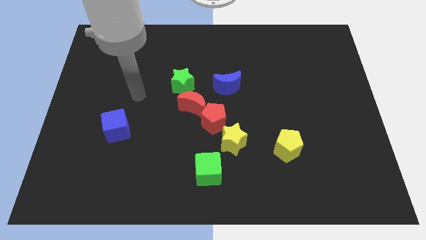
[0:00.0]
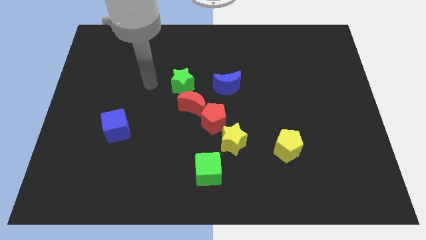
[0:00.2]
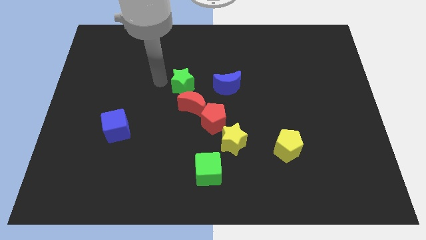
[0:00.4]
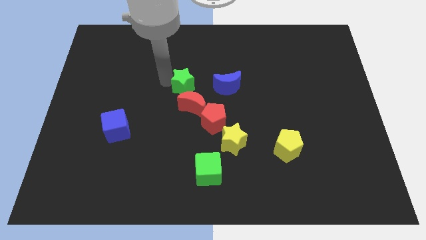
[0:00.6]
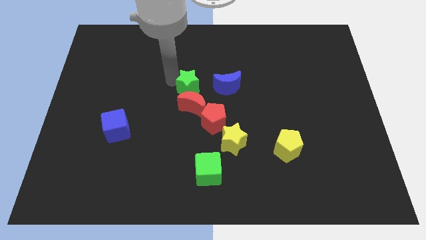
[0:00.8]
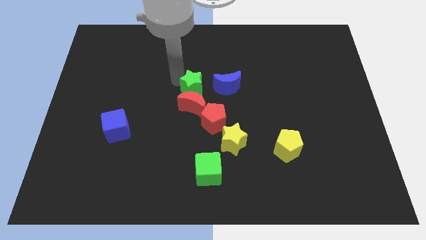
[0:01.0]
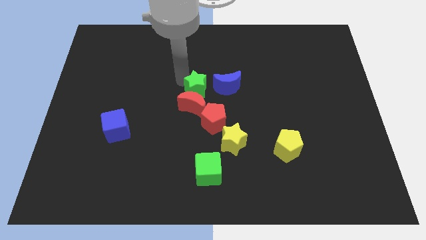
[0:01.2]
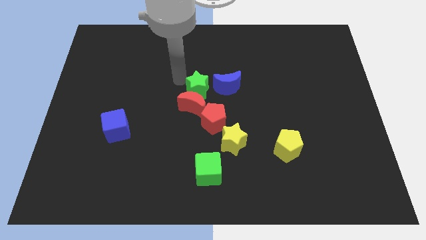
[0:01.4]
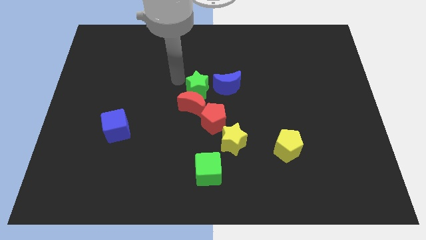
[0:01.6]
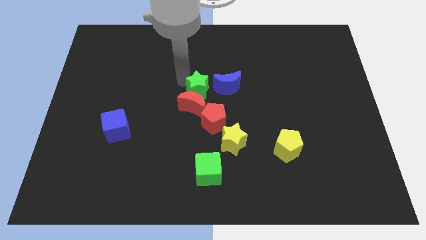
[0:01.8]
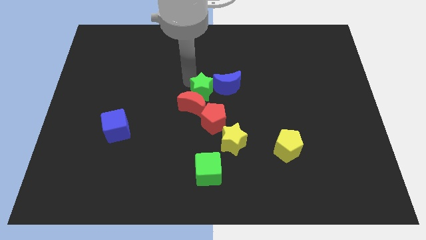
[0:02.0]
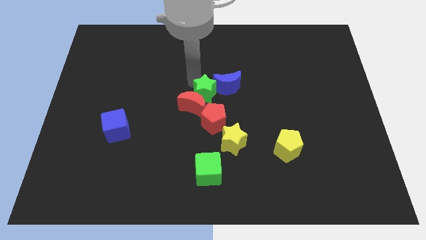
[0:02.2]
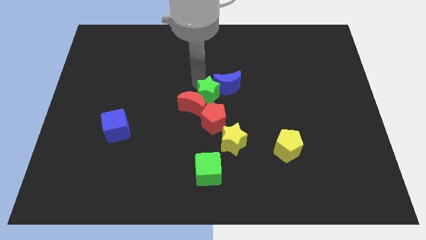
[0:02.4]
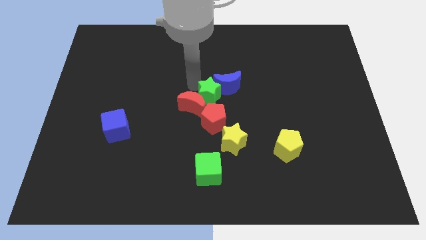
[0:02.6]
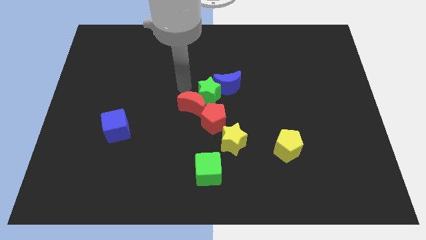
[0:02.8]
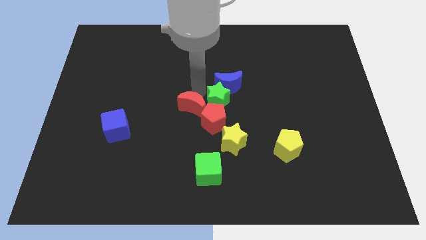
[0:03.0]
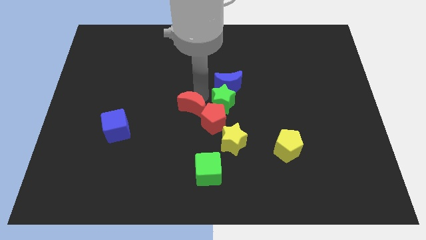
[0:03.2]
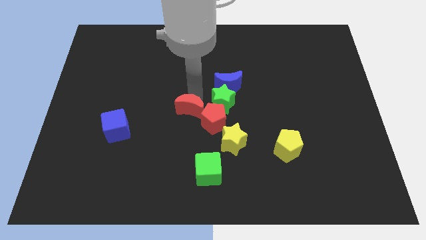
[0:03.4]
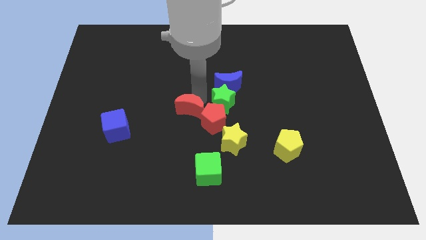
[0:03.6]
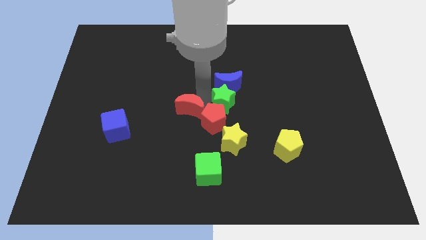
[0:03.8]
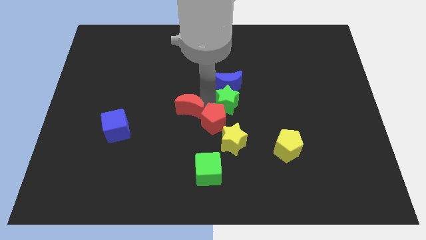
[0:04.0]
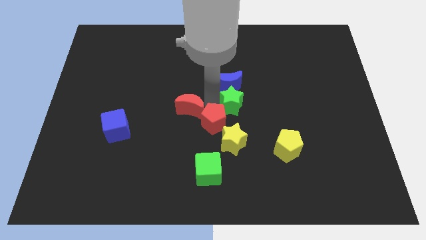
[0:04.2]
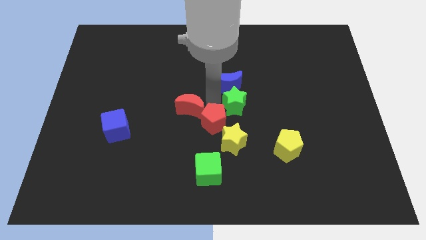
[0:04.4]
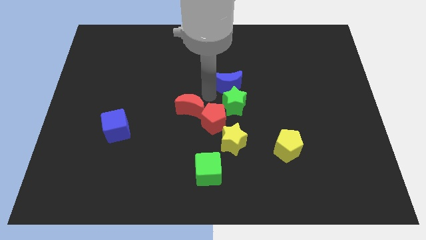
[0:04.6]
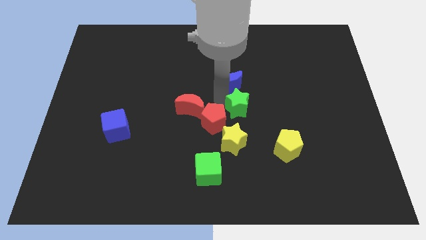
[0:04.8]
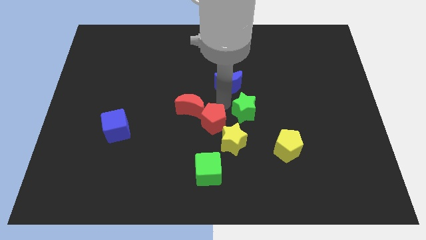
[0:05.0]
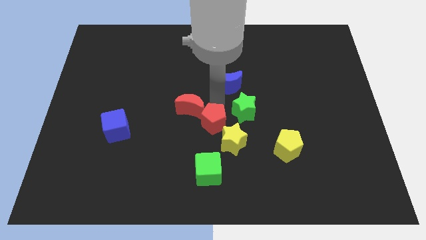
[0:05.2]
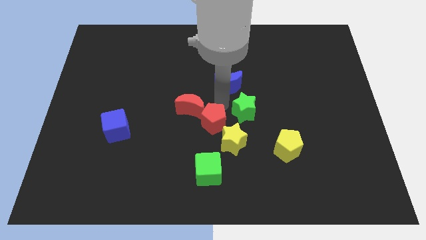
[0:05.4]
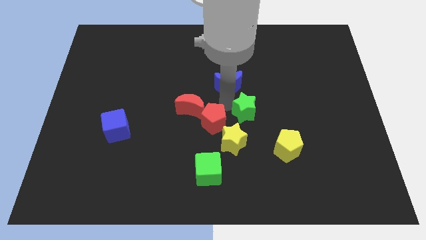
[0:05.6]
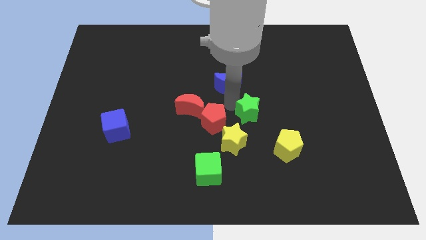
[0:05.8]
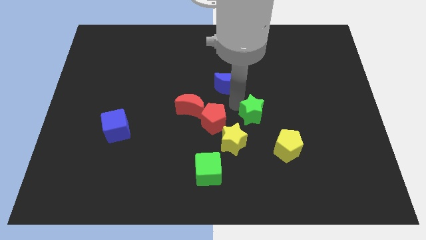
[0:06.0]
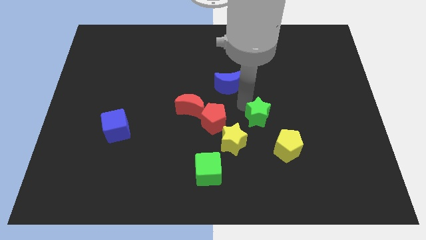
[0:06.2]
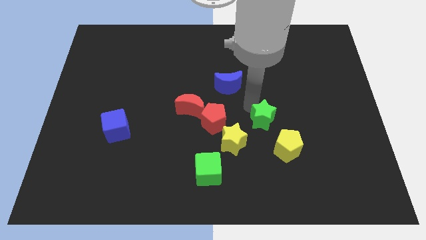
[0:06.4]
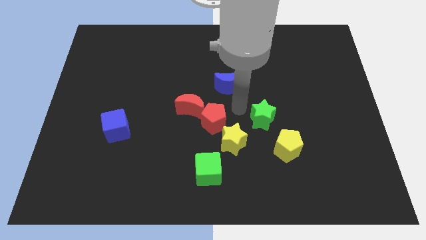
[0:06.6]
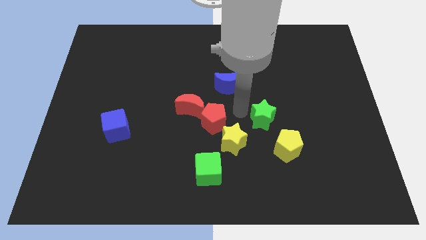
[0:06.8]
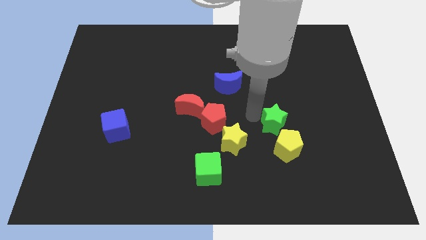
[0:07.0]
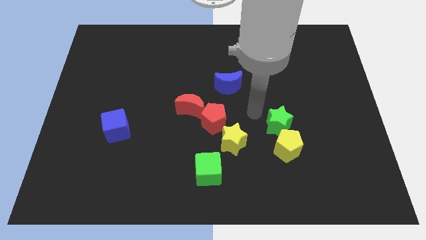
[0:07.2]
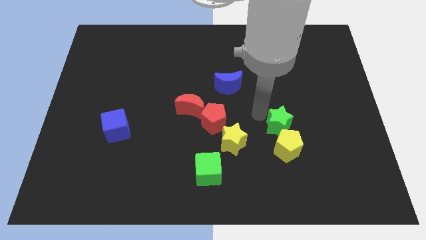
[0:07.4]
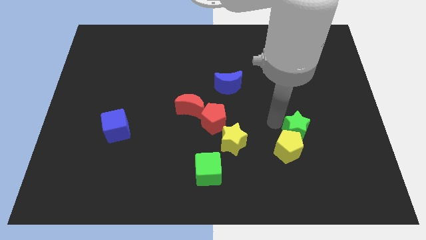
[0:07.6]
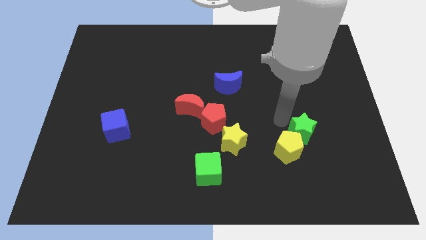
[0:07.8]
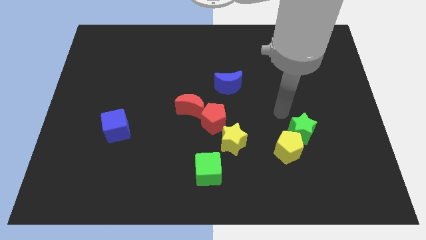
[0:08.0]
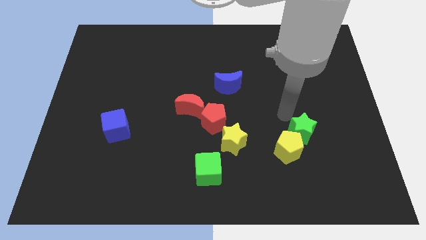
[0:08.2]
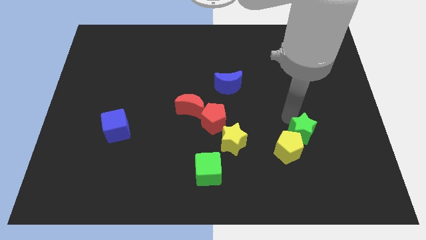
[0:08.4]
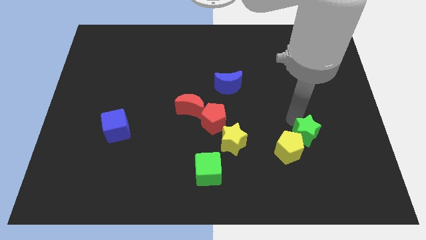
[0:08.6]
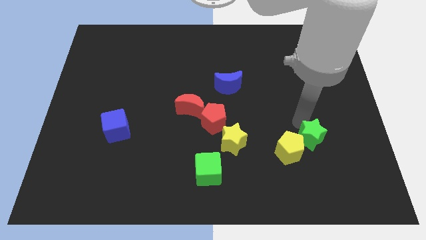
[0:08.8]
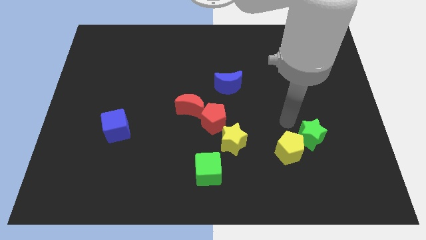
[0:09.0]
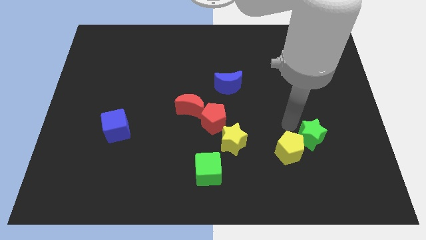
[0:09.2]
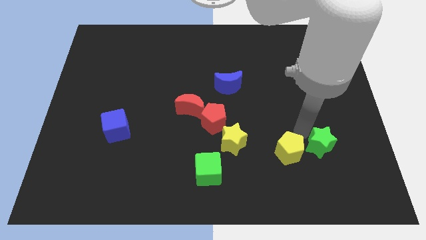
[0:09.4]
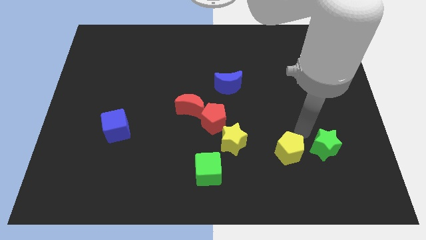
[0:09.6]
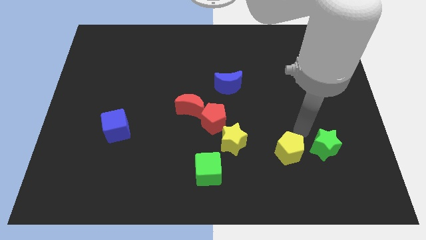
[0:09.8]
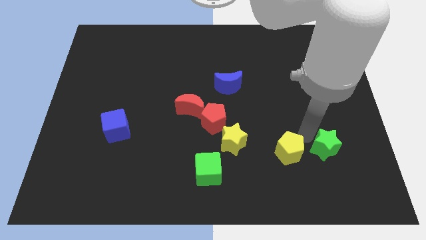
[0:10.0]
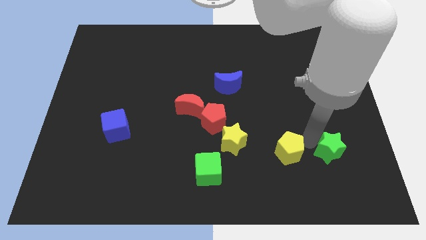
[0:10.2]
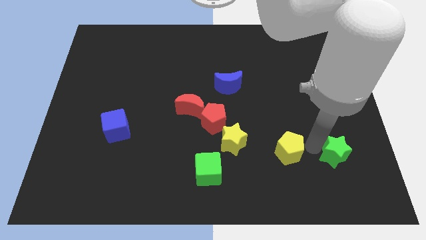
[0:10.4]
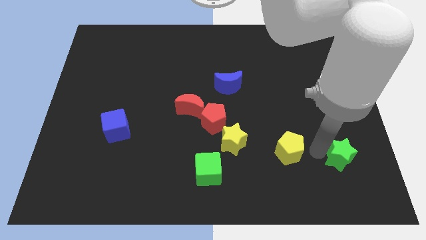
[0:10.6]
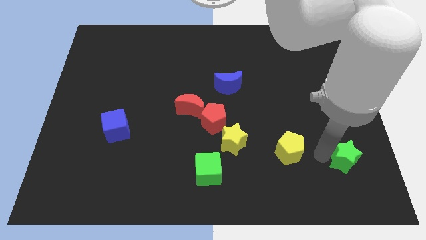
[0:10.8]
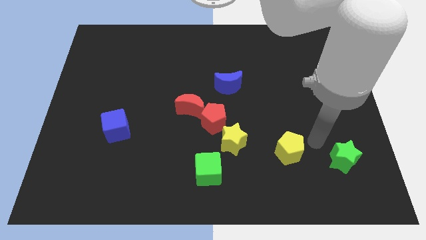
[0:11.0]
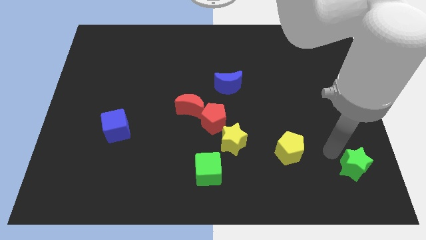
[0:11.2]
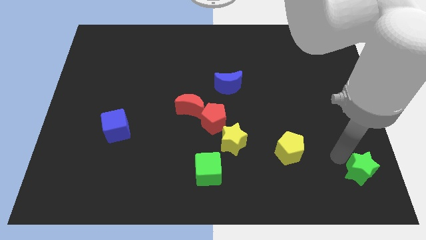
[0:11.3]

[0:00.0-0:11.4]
put the green star to the bottom right corner
